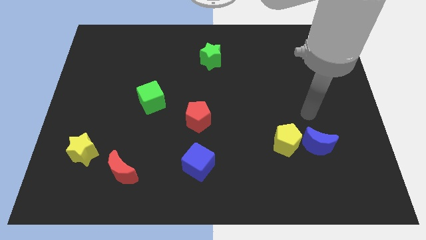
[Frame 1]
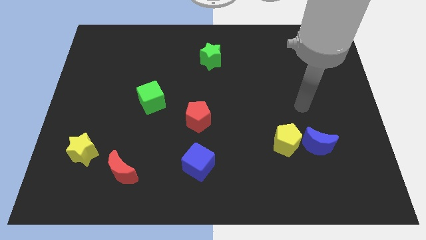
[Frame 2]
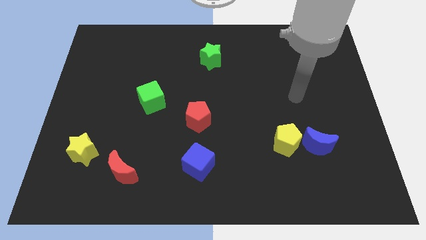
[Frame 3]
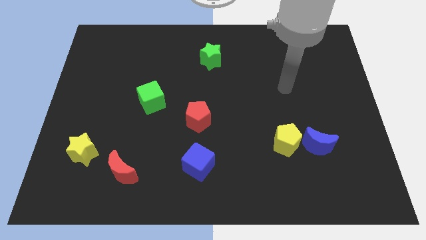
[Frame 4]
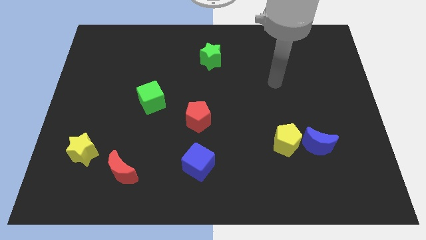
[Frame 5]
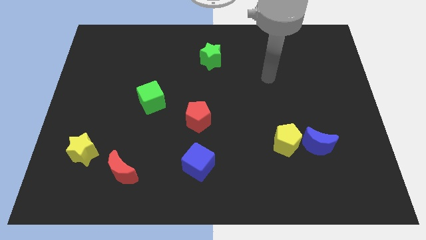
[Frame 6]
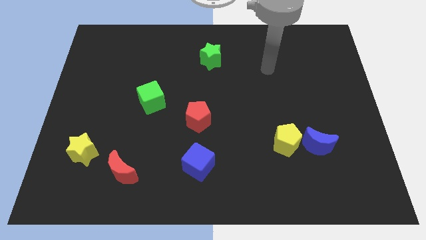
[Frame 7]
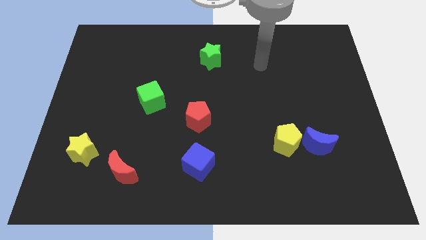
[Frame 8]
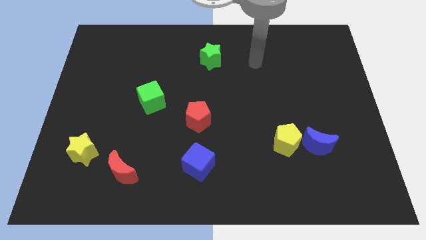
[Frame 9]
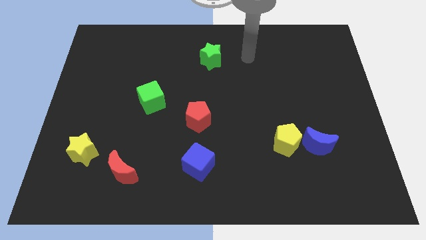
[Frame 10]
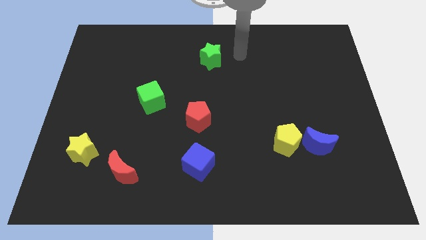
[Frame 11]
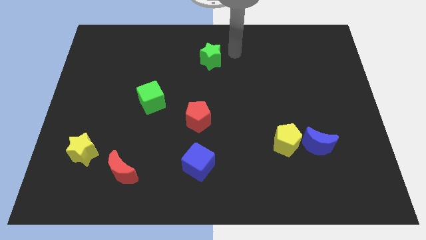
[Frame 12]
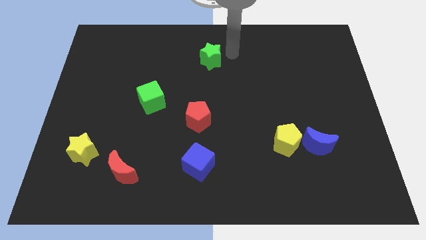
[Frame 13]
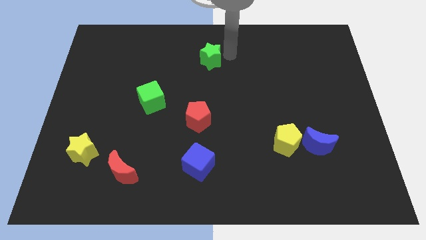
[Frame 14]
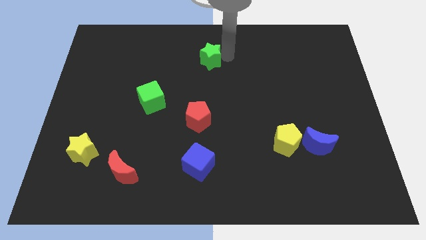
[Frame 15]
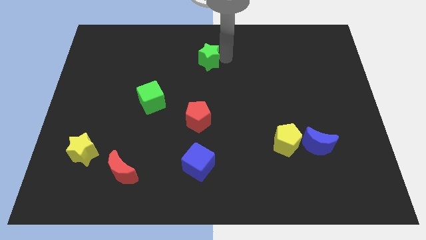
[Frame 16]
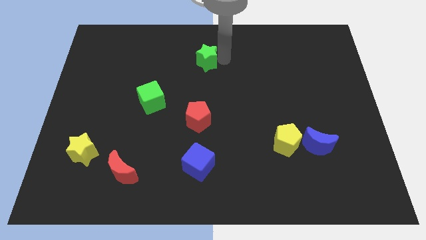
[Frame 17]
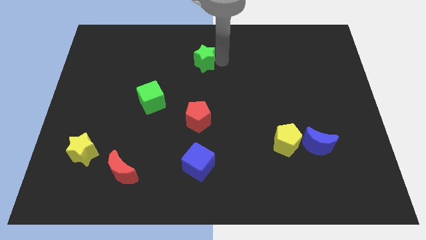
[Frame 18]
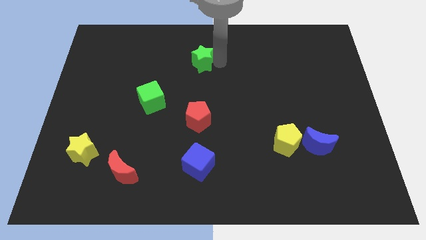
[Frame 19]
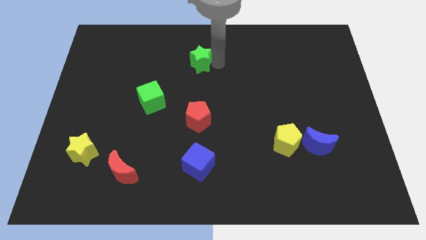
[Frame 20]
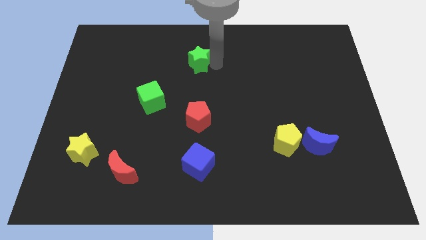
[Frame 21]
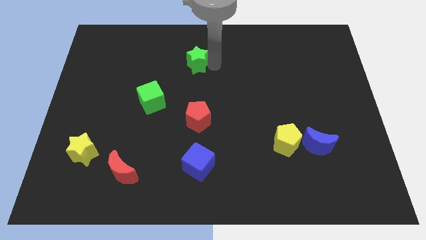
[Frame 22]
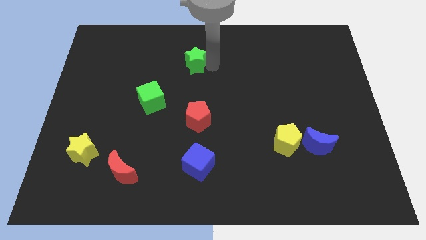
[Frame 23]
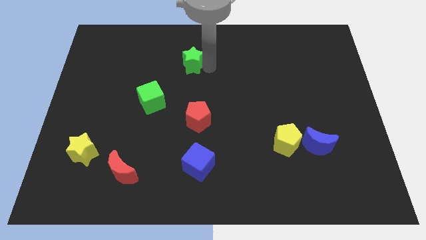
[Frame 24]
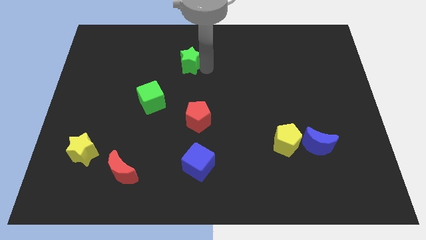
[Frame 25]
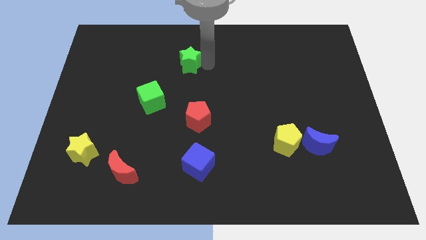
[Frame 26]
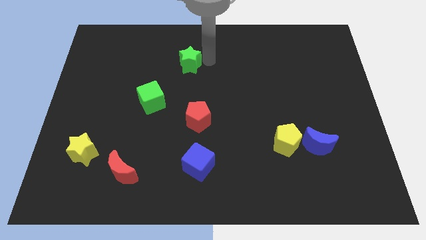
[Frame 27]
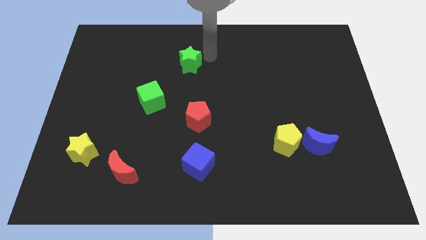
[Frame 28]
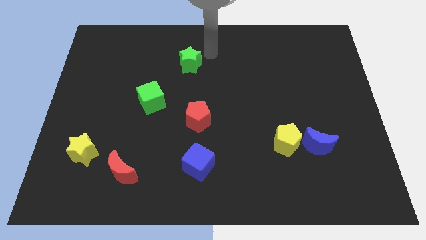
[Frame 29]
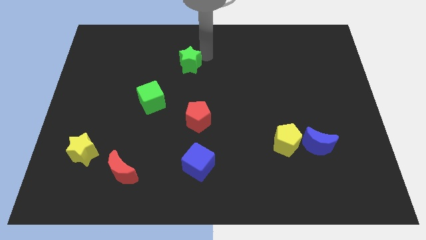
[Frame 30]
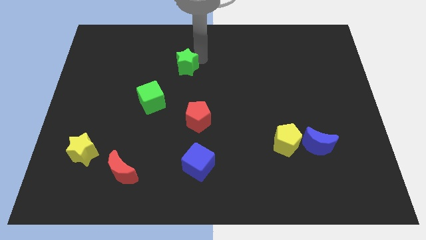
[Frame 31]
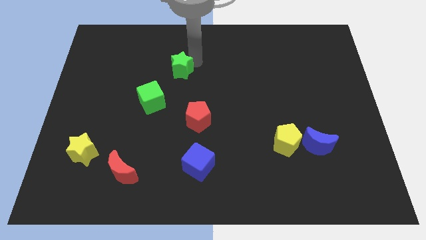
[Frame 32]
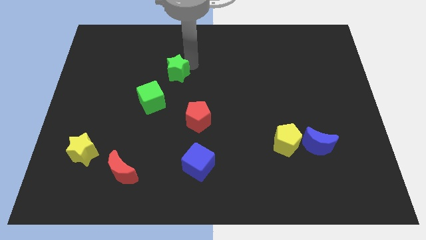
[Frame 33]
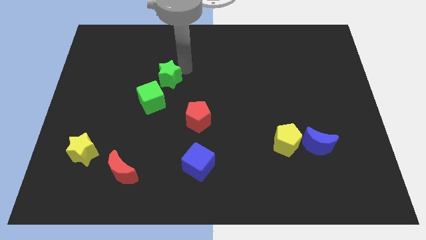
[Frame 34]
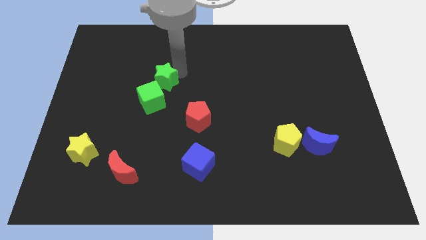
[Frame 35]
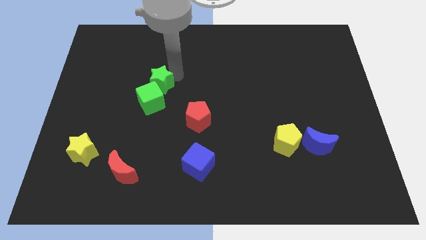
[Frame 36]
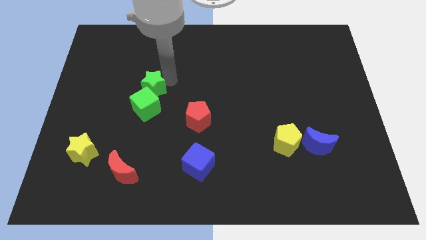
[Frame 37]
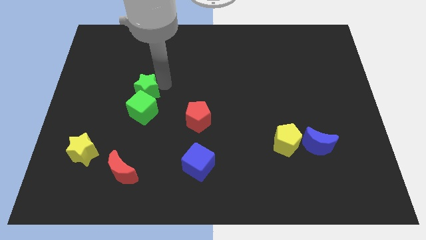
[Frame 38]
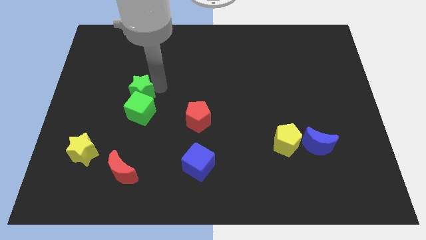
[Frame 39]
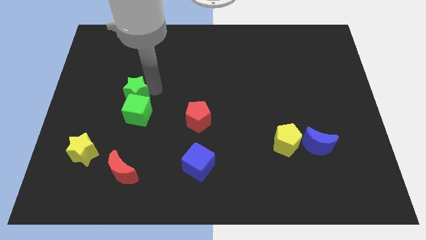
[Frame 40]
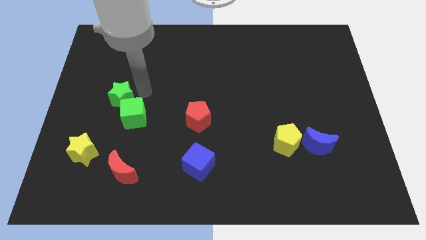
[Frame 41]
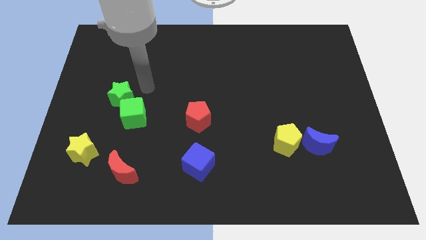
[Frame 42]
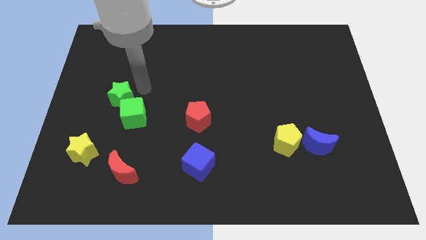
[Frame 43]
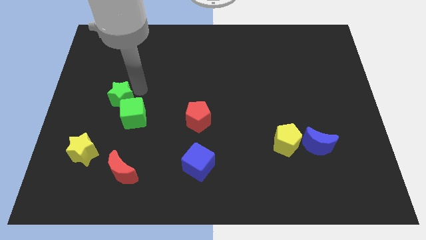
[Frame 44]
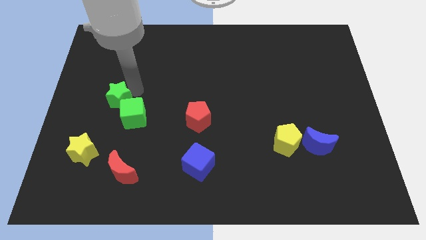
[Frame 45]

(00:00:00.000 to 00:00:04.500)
slide the green star just left of the green cube

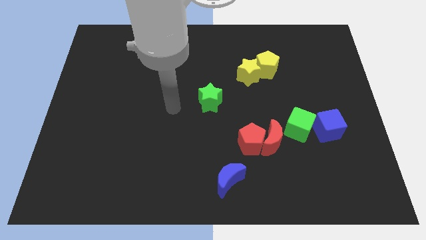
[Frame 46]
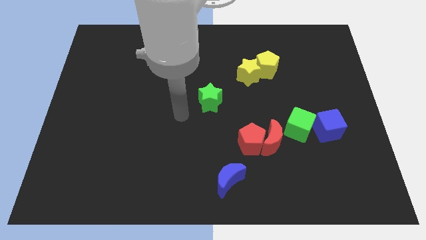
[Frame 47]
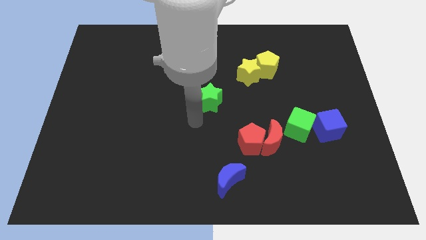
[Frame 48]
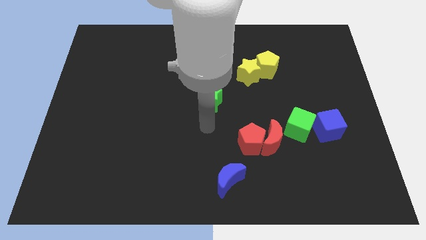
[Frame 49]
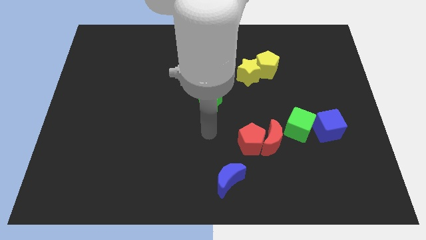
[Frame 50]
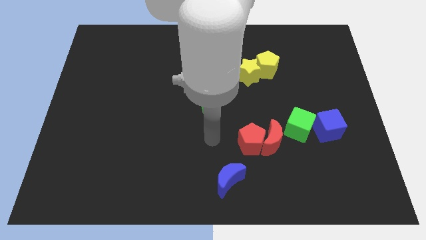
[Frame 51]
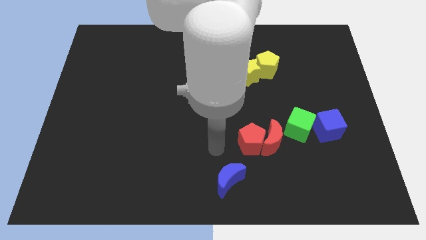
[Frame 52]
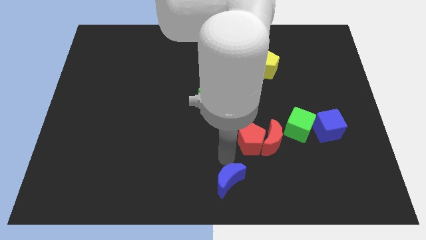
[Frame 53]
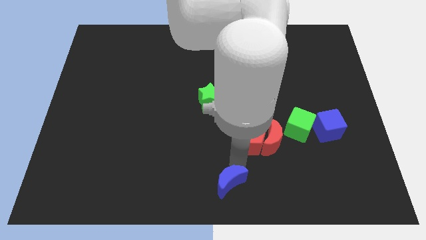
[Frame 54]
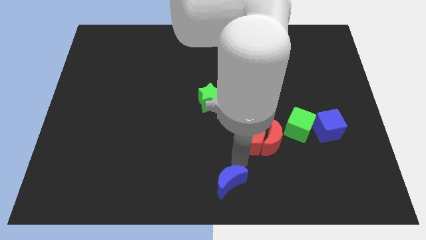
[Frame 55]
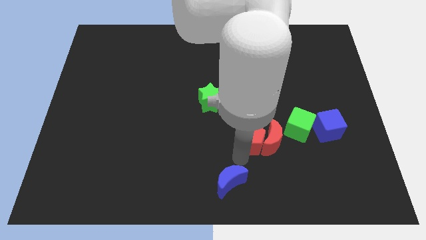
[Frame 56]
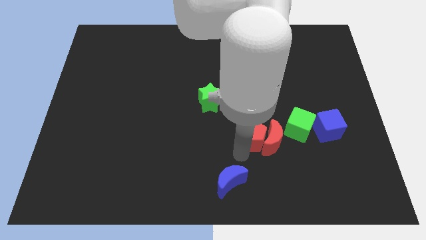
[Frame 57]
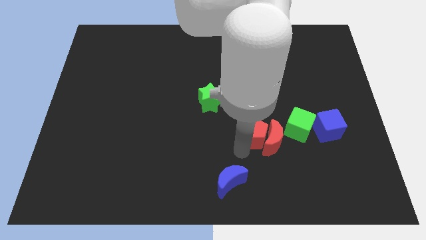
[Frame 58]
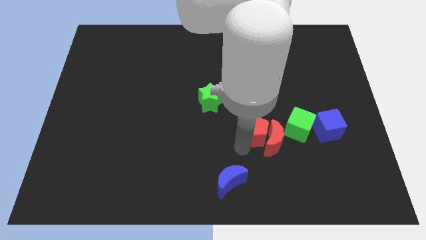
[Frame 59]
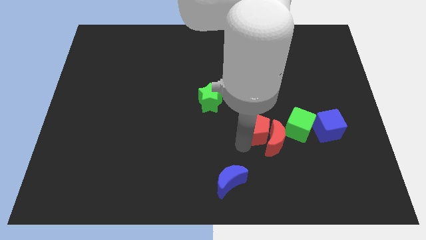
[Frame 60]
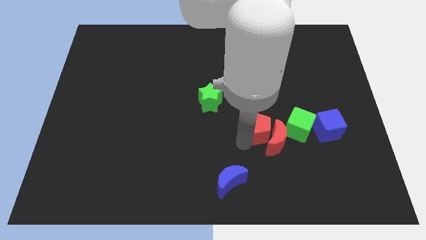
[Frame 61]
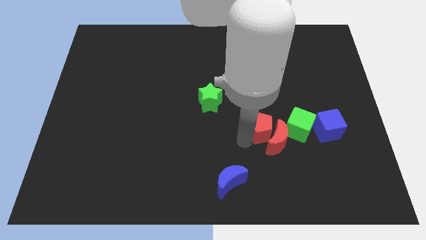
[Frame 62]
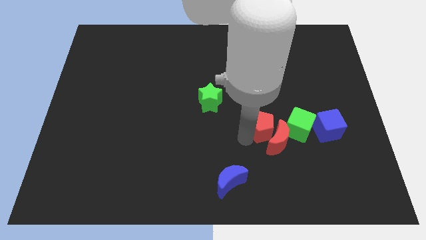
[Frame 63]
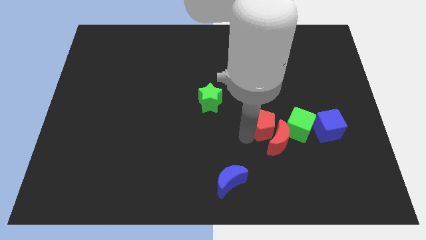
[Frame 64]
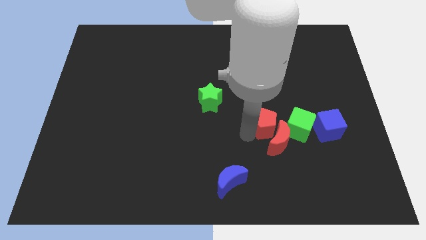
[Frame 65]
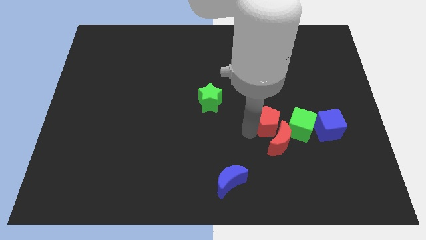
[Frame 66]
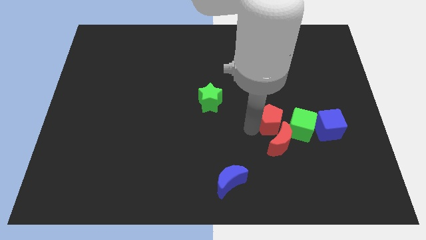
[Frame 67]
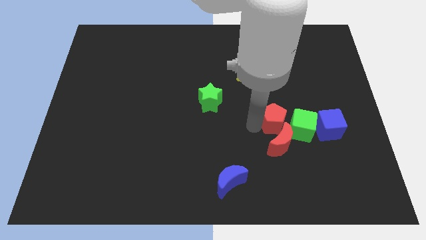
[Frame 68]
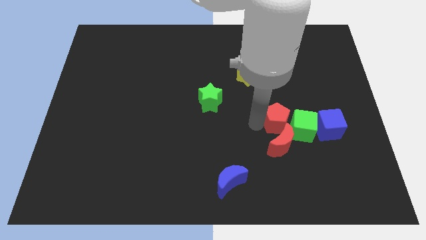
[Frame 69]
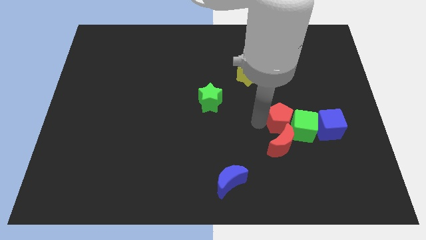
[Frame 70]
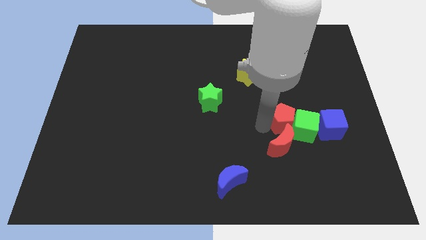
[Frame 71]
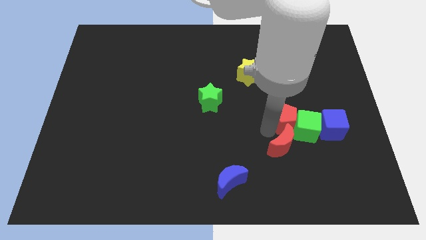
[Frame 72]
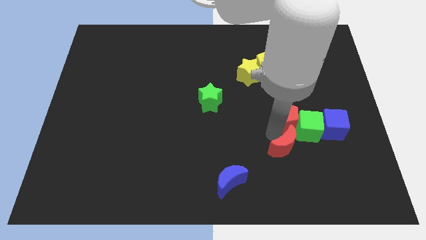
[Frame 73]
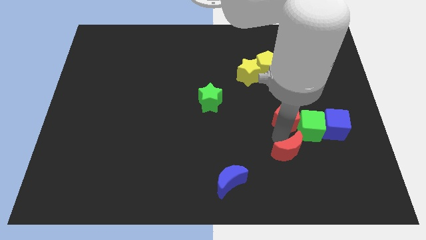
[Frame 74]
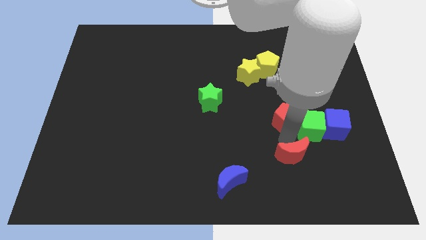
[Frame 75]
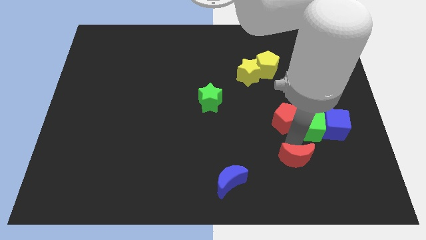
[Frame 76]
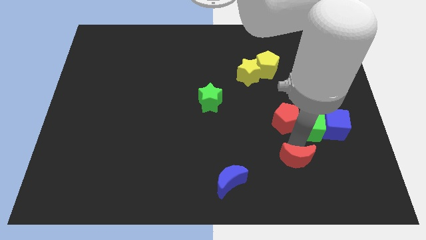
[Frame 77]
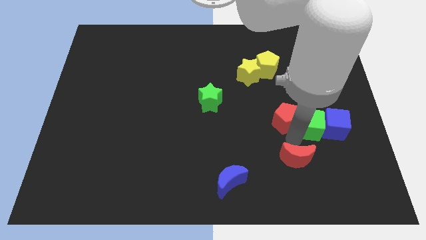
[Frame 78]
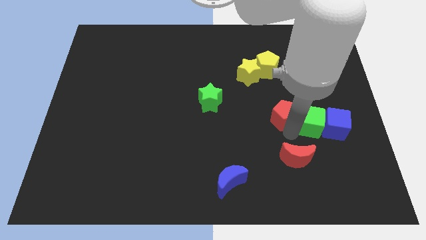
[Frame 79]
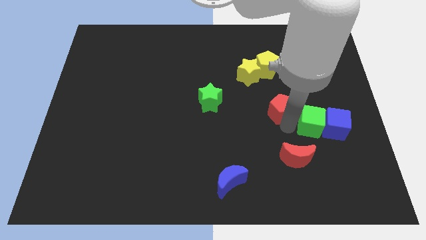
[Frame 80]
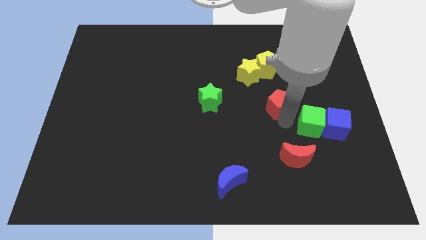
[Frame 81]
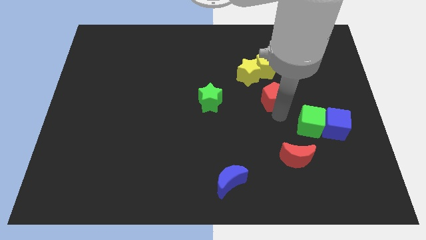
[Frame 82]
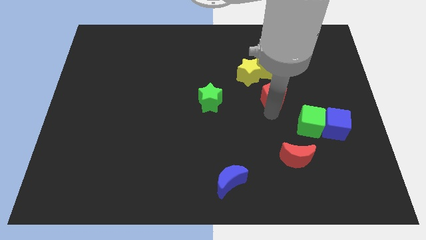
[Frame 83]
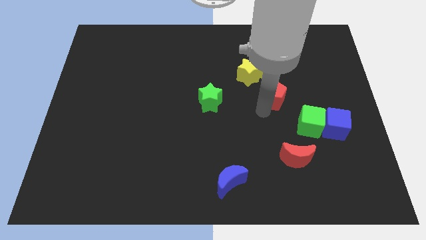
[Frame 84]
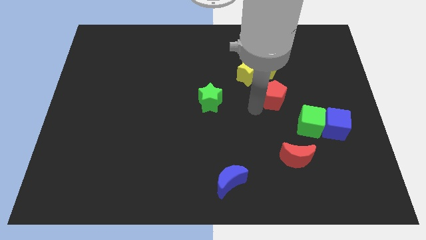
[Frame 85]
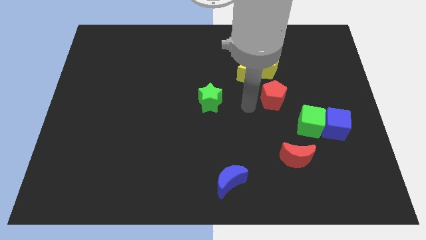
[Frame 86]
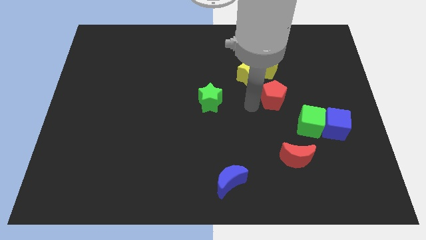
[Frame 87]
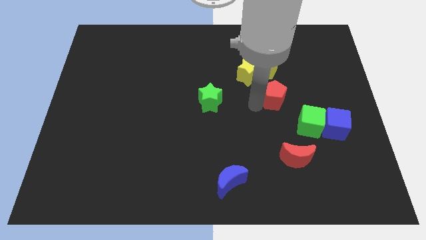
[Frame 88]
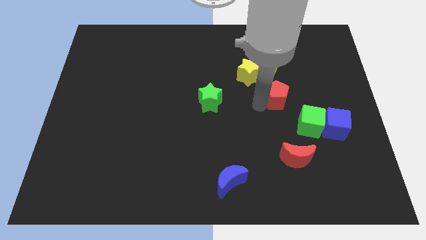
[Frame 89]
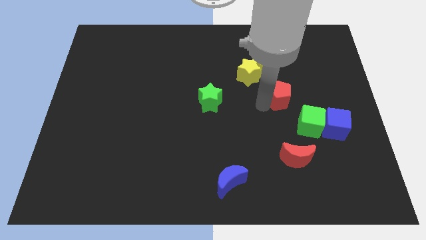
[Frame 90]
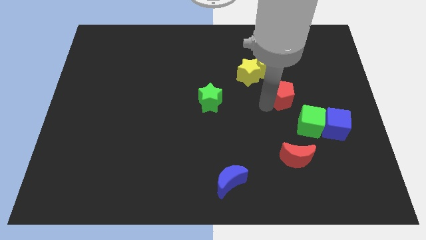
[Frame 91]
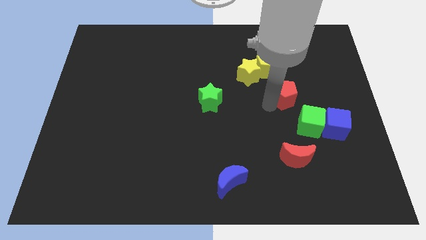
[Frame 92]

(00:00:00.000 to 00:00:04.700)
move the red pentagon to the top of the green cube
